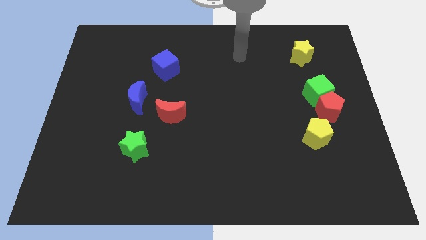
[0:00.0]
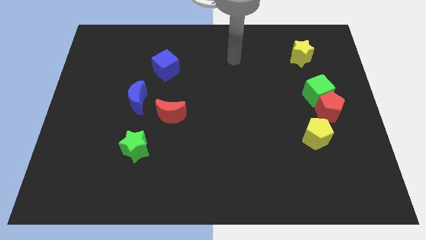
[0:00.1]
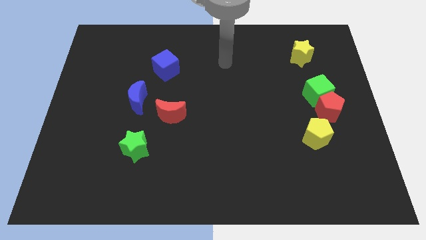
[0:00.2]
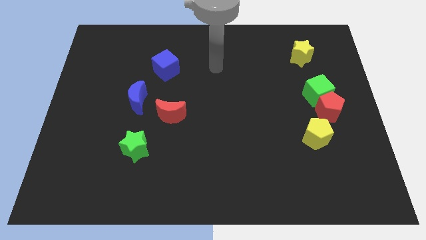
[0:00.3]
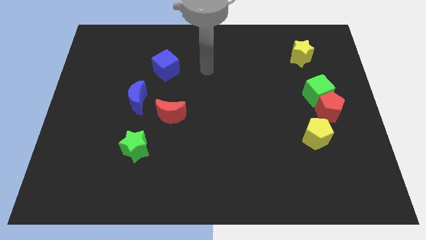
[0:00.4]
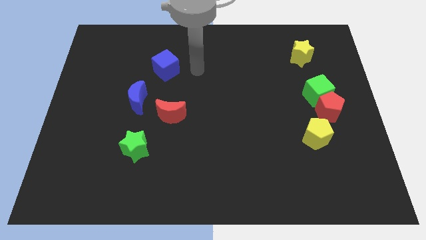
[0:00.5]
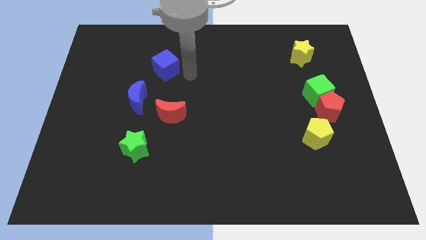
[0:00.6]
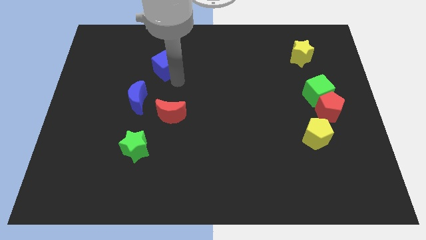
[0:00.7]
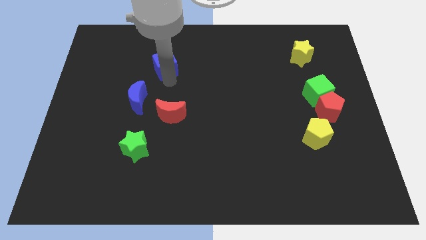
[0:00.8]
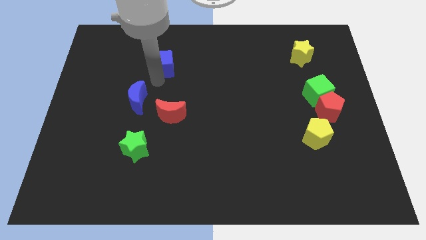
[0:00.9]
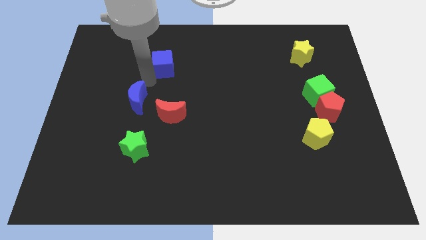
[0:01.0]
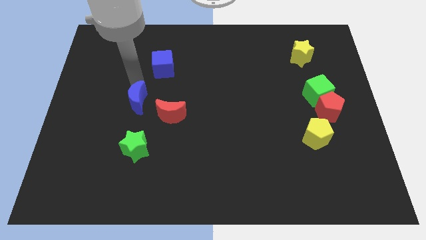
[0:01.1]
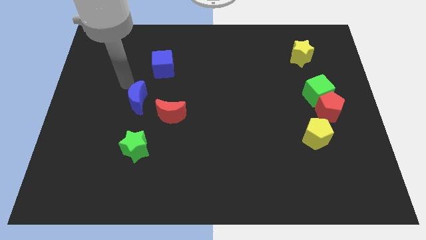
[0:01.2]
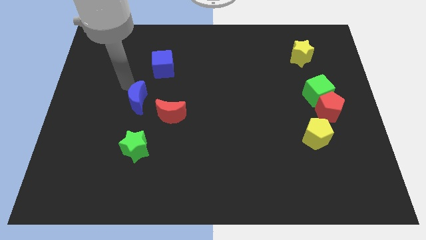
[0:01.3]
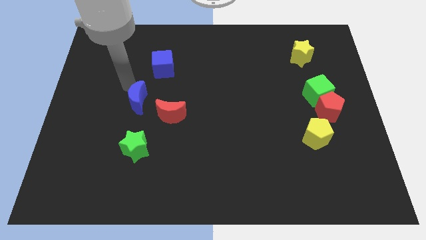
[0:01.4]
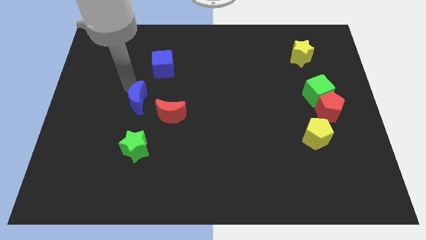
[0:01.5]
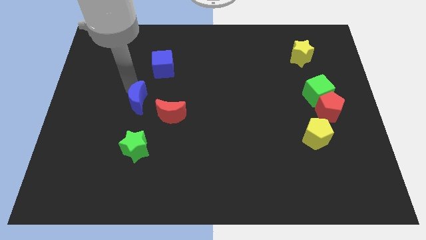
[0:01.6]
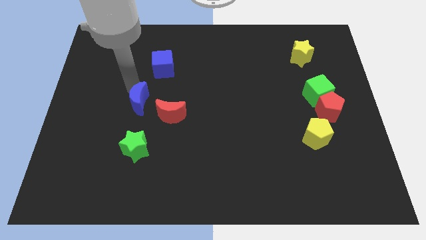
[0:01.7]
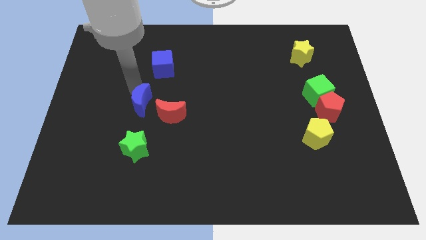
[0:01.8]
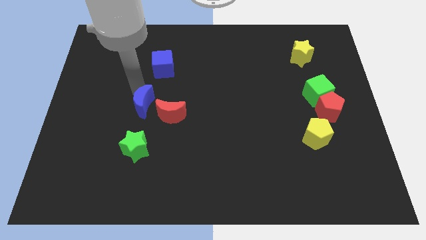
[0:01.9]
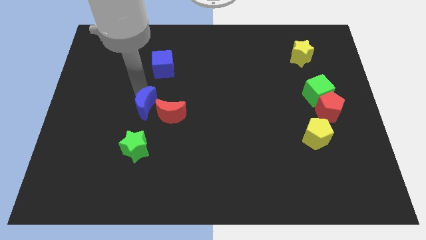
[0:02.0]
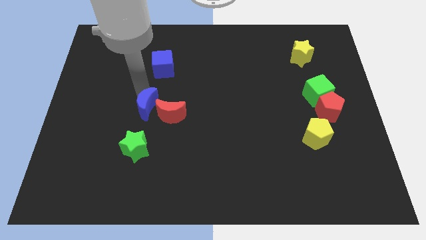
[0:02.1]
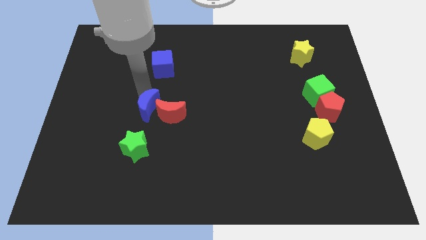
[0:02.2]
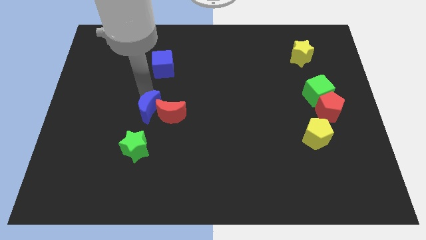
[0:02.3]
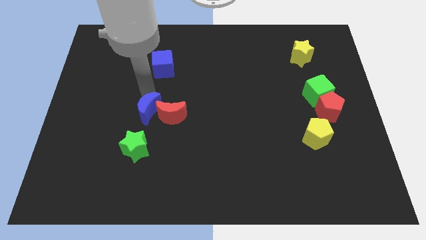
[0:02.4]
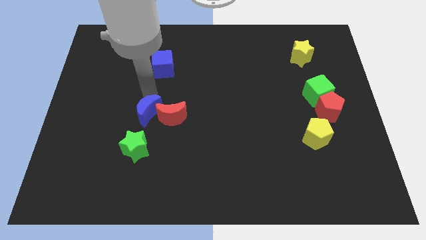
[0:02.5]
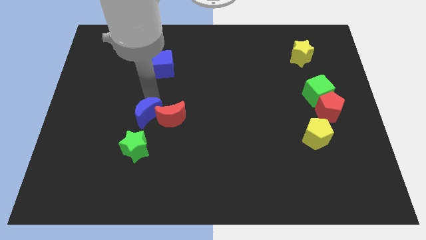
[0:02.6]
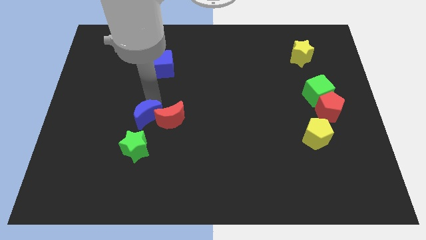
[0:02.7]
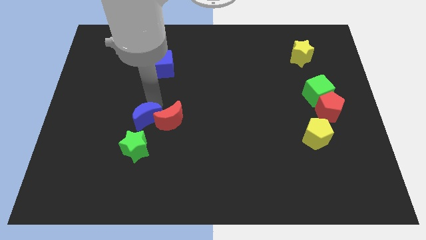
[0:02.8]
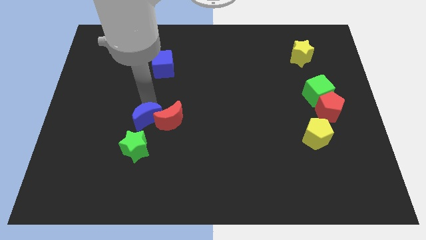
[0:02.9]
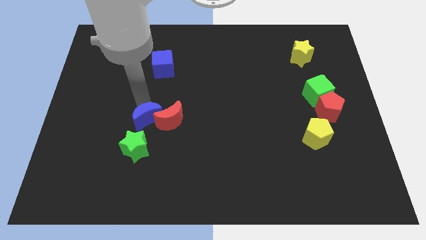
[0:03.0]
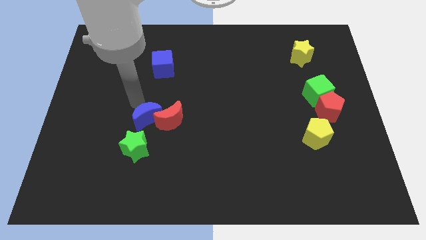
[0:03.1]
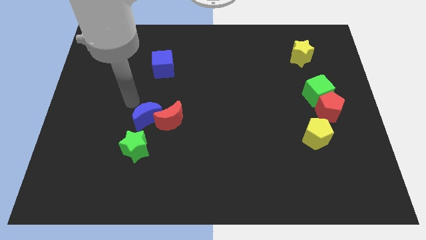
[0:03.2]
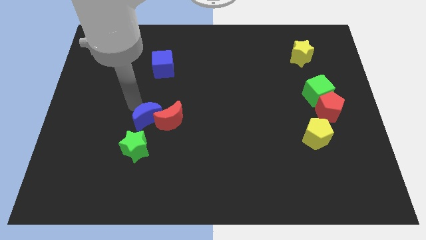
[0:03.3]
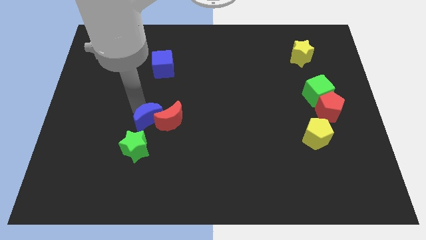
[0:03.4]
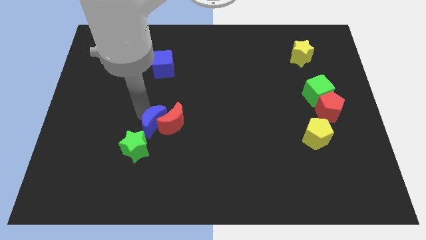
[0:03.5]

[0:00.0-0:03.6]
push the blue moon downwards and to the right a bit

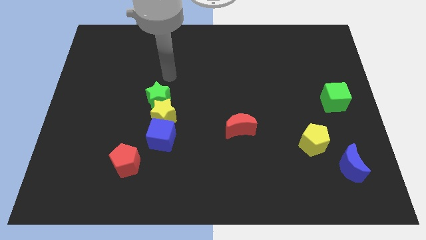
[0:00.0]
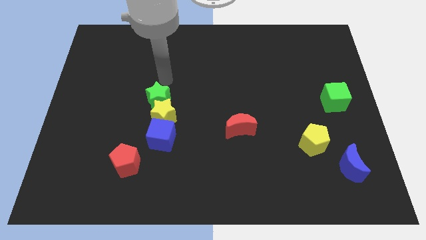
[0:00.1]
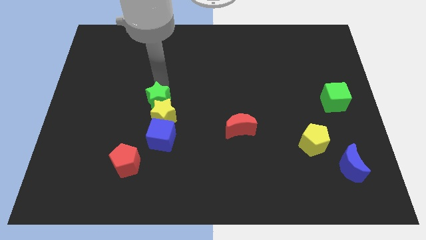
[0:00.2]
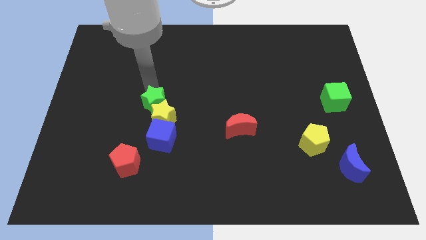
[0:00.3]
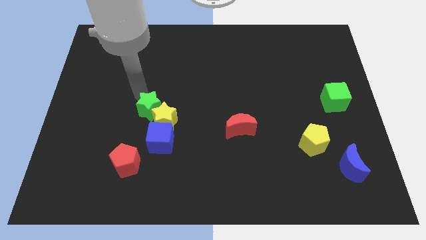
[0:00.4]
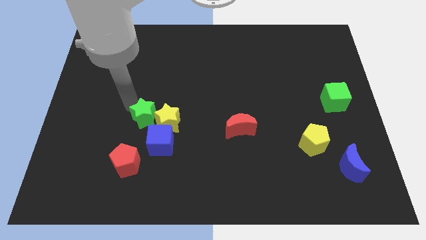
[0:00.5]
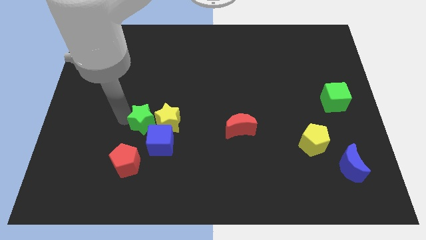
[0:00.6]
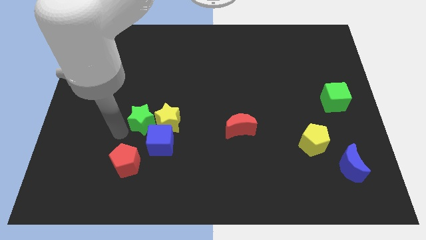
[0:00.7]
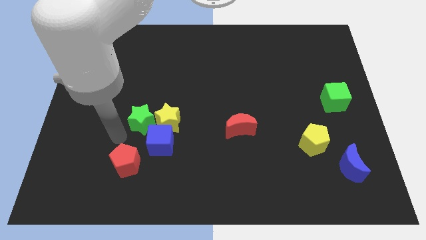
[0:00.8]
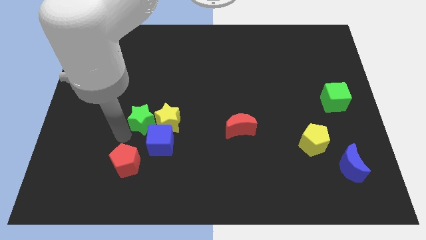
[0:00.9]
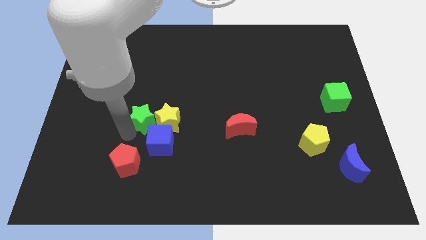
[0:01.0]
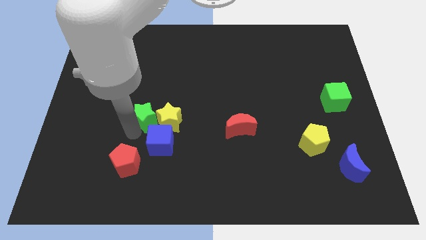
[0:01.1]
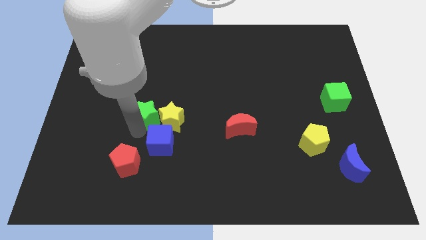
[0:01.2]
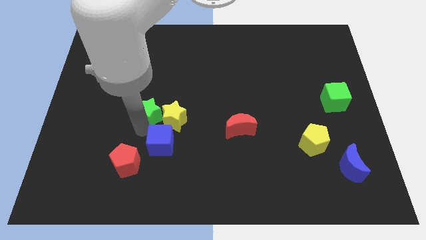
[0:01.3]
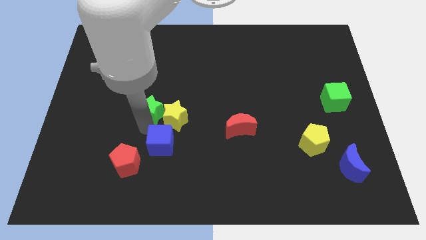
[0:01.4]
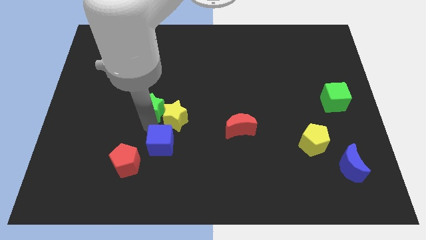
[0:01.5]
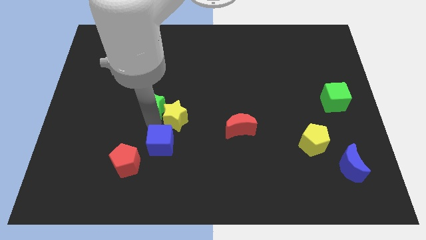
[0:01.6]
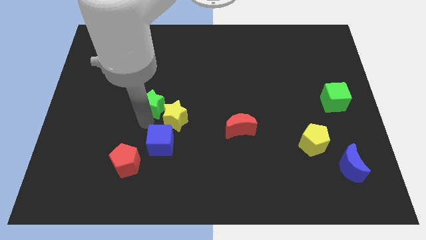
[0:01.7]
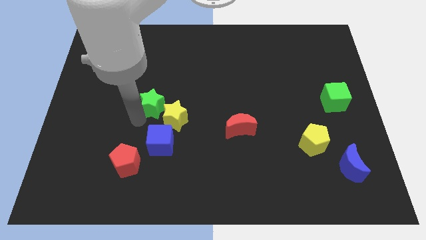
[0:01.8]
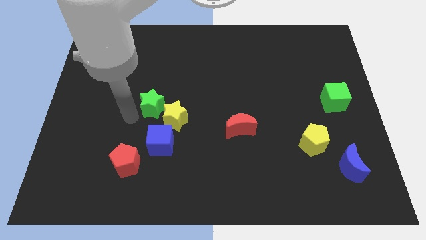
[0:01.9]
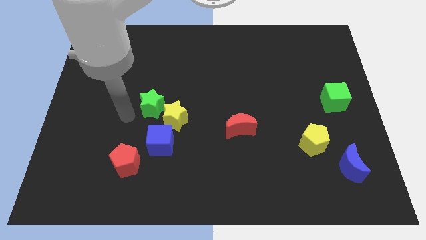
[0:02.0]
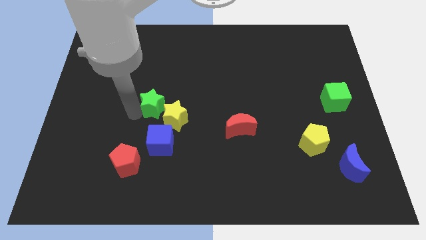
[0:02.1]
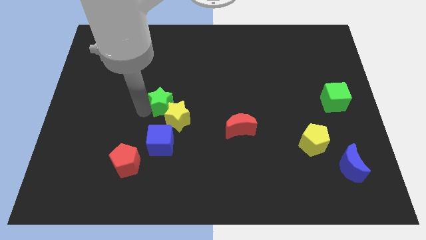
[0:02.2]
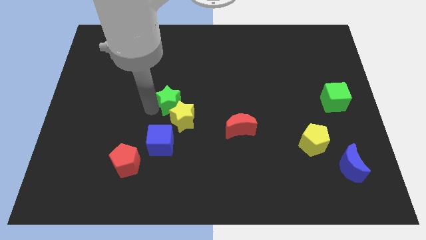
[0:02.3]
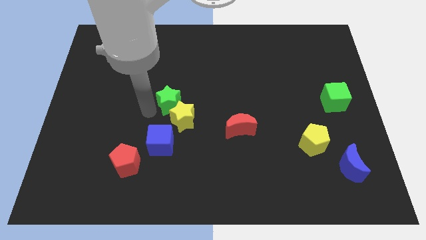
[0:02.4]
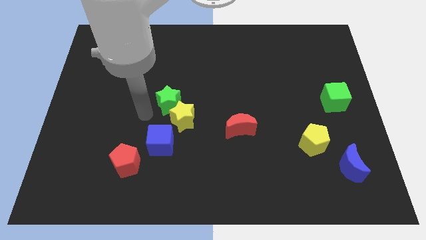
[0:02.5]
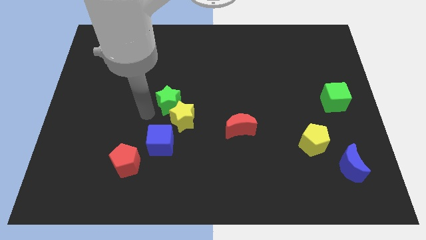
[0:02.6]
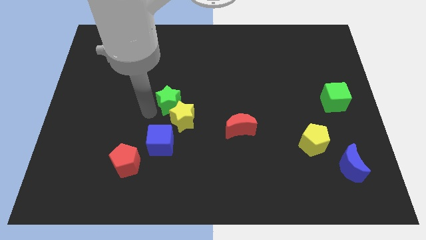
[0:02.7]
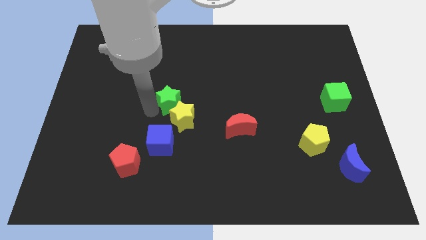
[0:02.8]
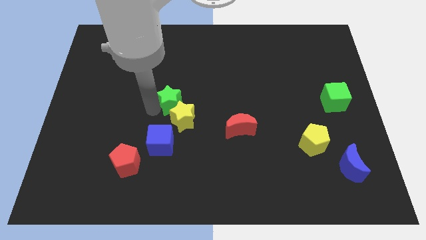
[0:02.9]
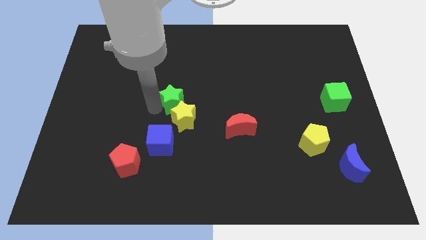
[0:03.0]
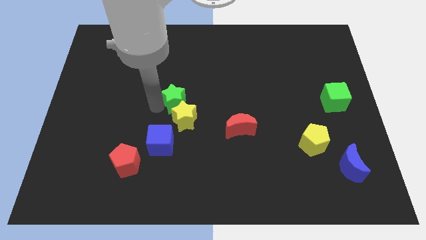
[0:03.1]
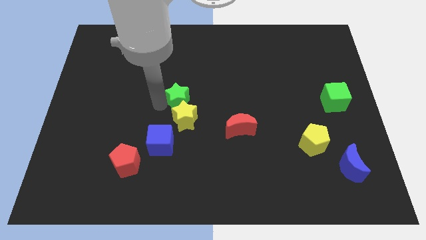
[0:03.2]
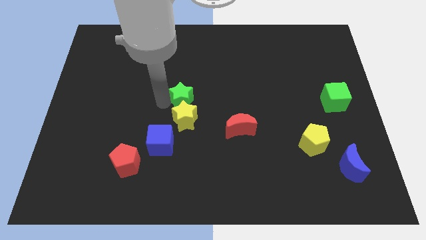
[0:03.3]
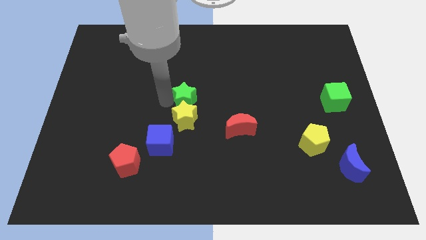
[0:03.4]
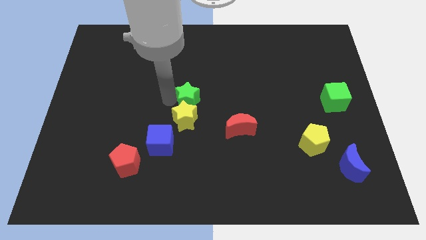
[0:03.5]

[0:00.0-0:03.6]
slightly move the green star right

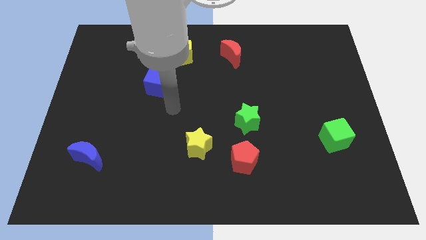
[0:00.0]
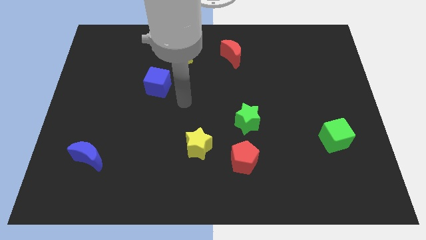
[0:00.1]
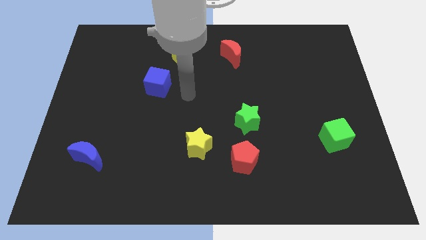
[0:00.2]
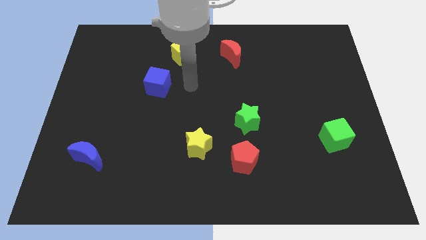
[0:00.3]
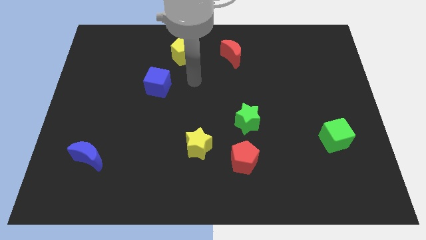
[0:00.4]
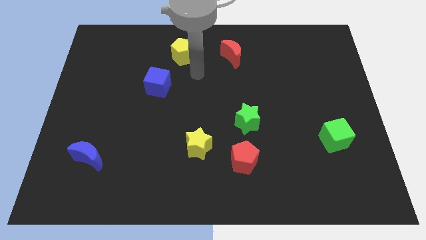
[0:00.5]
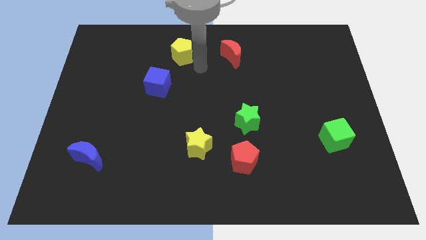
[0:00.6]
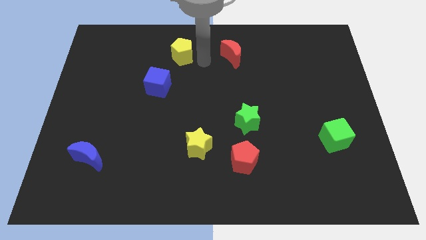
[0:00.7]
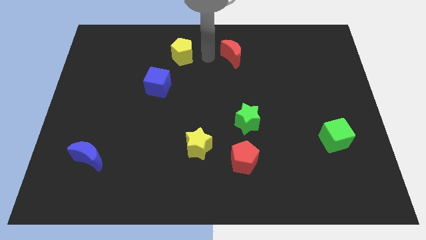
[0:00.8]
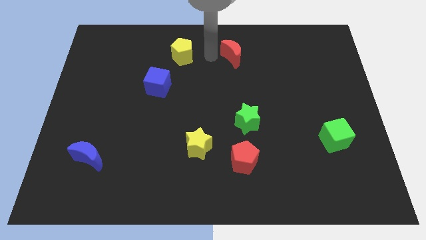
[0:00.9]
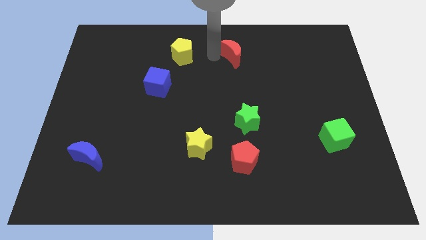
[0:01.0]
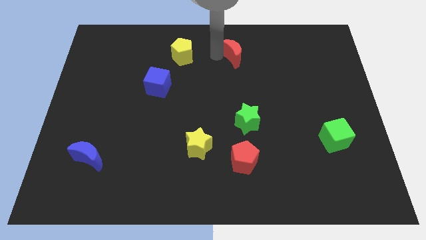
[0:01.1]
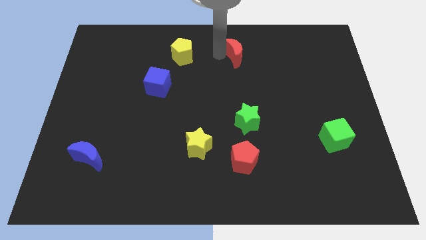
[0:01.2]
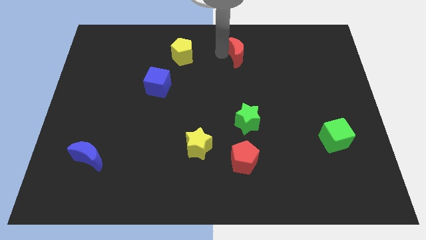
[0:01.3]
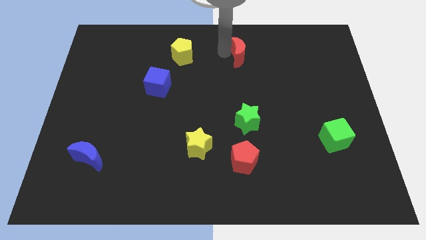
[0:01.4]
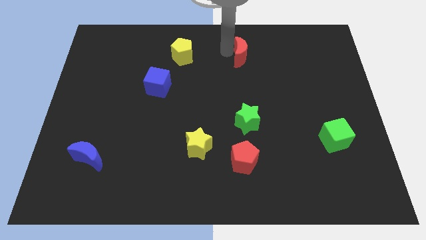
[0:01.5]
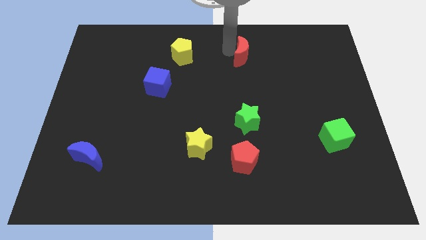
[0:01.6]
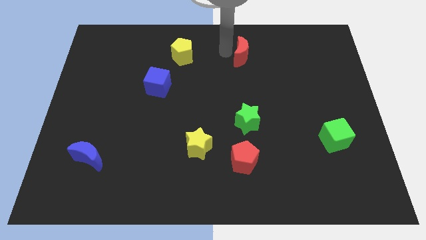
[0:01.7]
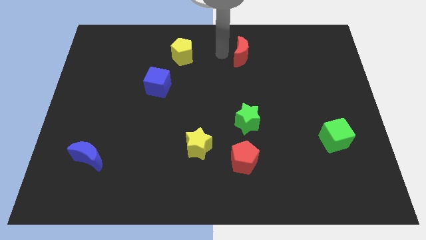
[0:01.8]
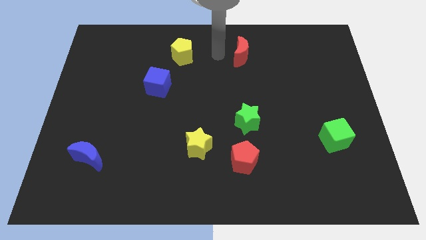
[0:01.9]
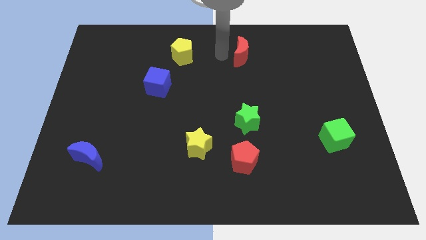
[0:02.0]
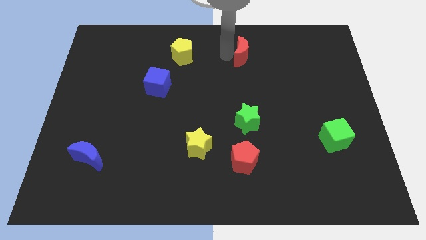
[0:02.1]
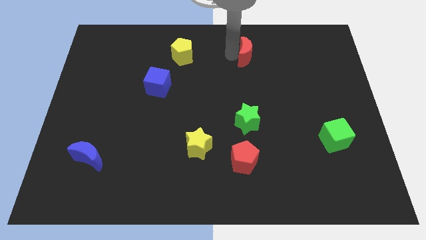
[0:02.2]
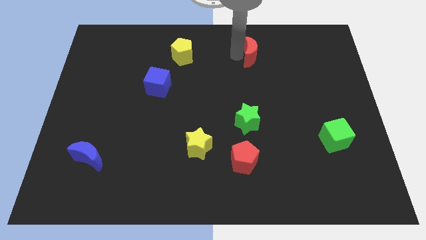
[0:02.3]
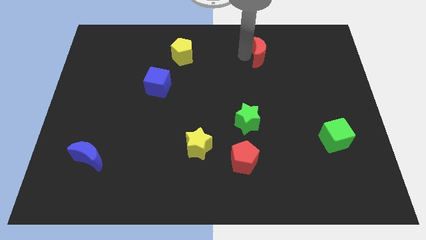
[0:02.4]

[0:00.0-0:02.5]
move the red moon slightly to the right
